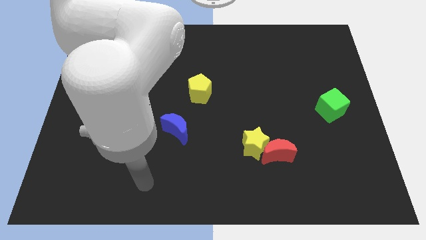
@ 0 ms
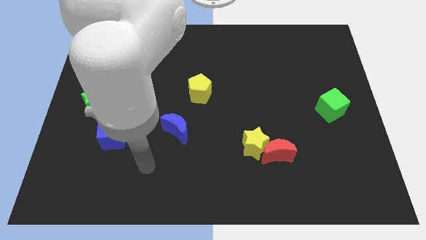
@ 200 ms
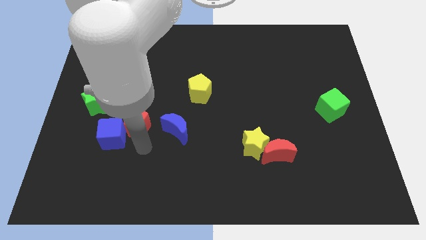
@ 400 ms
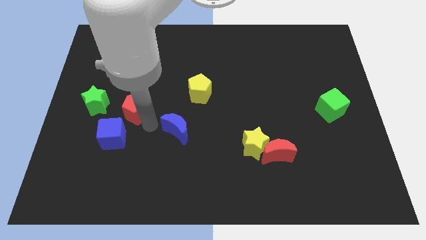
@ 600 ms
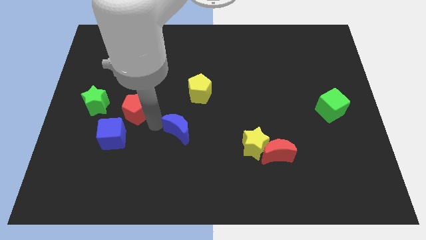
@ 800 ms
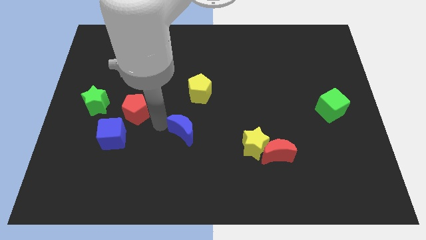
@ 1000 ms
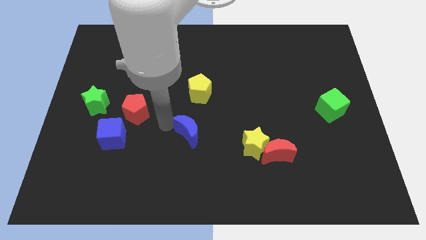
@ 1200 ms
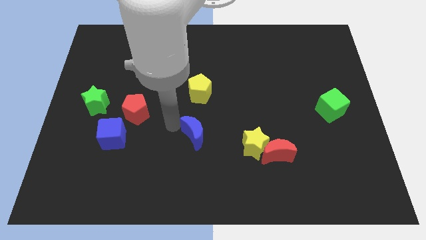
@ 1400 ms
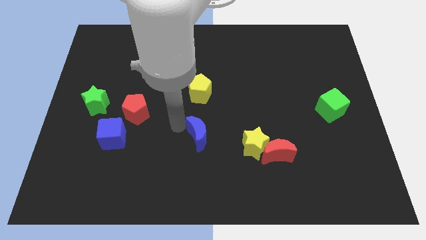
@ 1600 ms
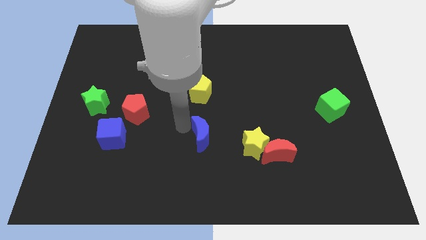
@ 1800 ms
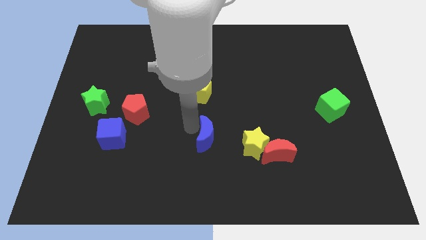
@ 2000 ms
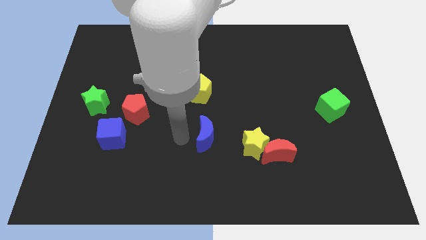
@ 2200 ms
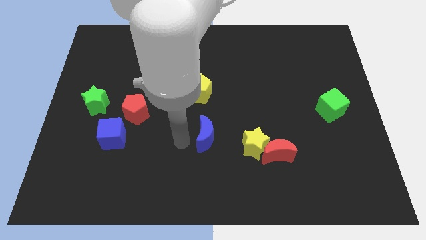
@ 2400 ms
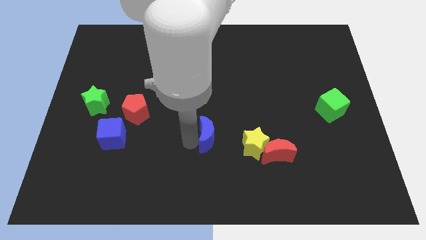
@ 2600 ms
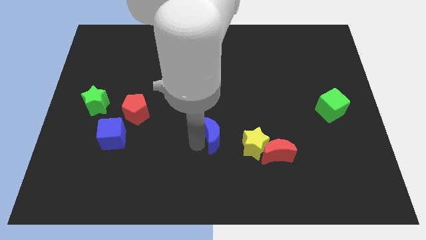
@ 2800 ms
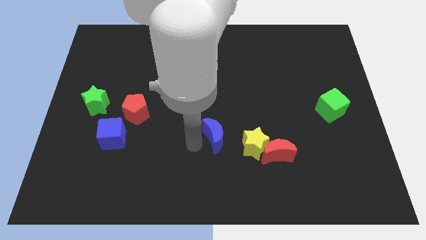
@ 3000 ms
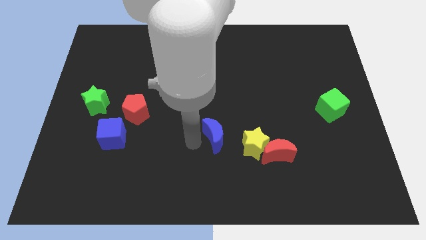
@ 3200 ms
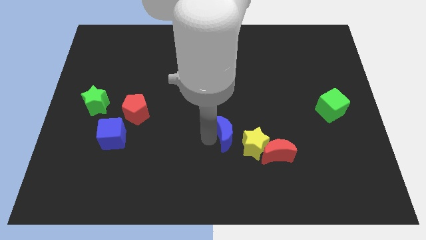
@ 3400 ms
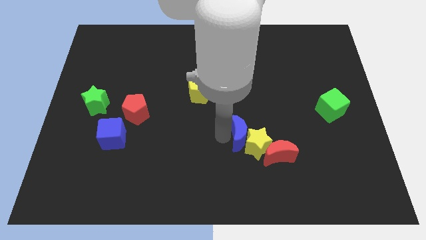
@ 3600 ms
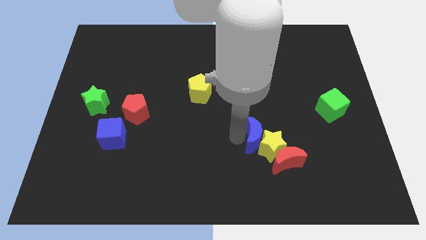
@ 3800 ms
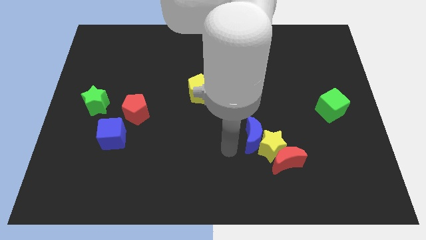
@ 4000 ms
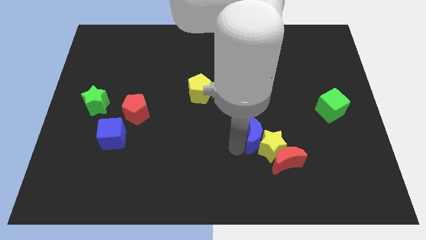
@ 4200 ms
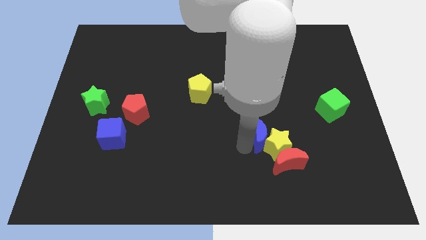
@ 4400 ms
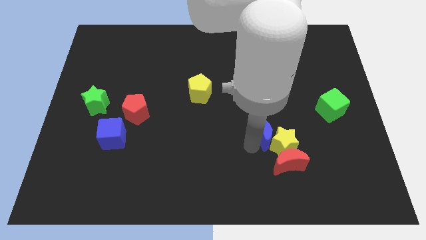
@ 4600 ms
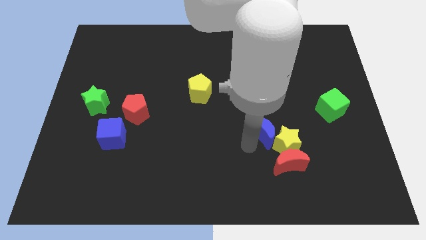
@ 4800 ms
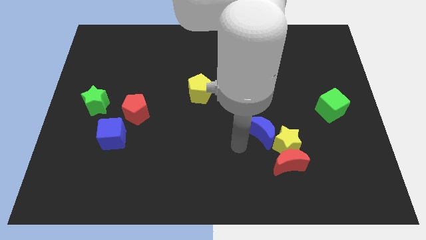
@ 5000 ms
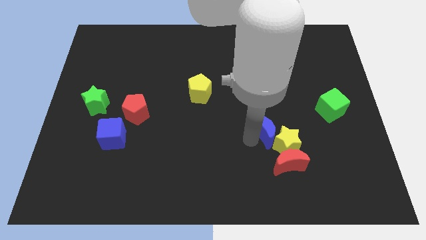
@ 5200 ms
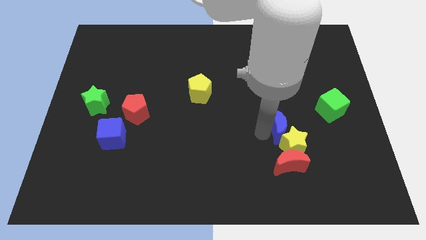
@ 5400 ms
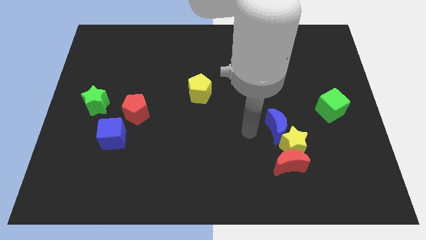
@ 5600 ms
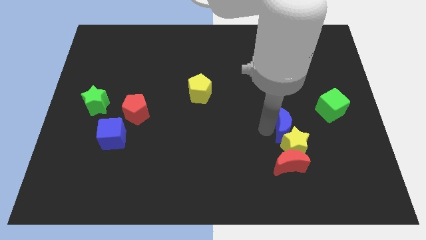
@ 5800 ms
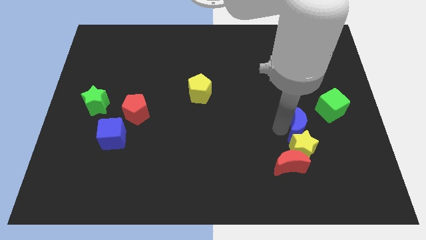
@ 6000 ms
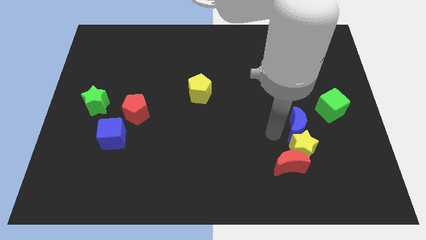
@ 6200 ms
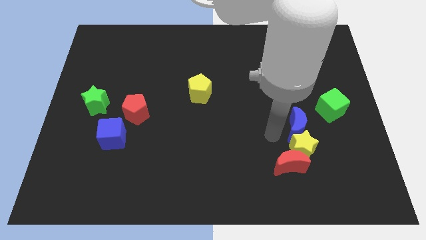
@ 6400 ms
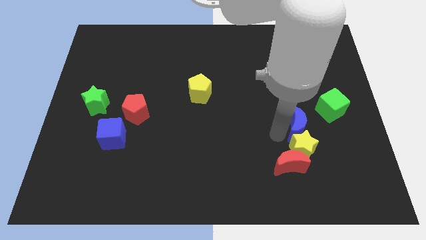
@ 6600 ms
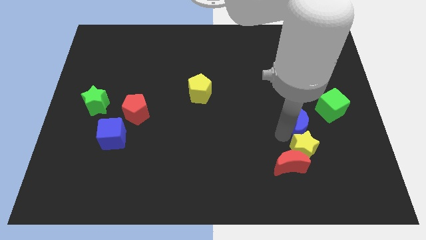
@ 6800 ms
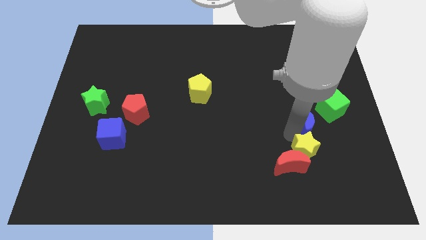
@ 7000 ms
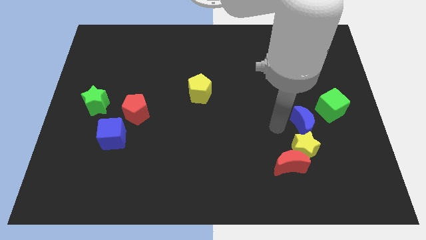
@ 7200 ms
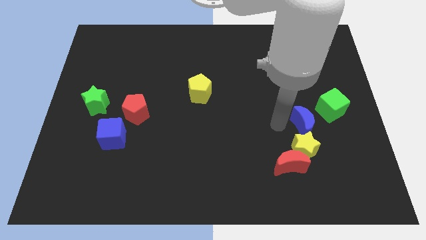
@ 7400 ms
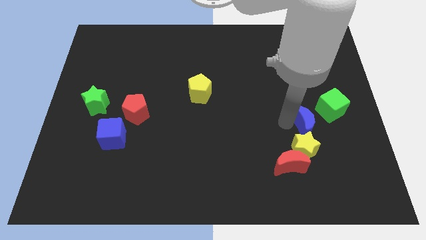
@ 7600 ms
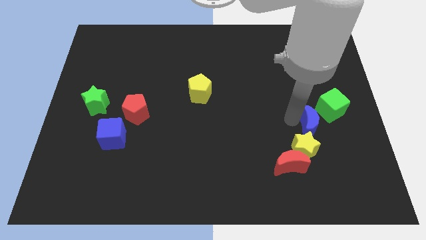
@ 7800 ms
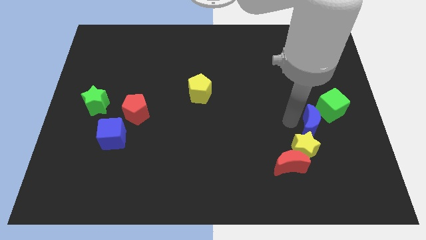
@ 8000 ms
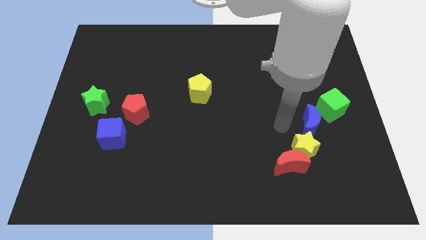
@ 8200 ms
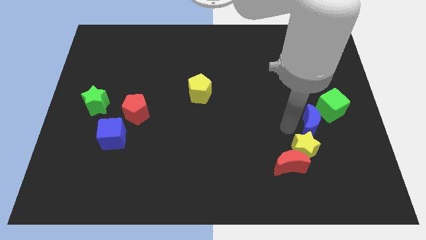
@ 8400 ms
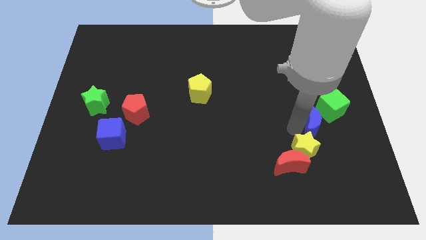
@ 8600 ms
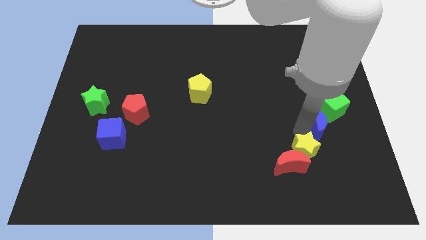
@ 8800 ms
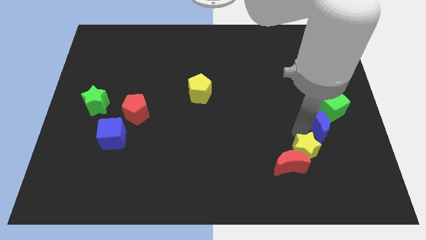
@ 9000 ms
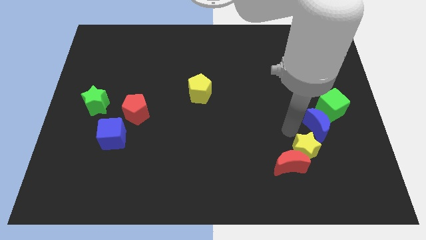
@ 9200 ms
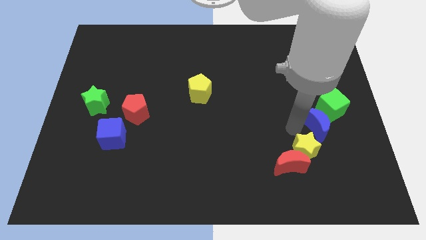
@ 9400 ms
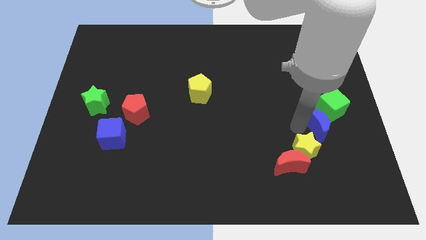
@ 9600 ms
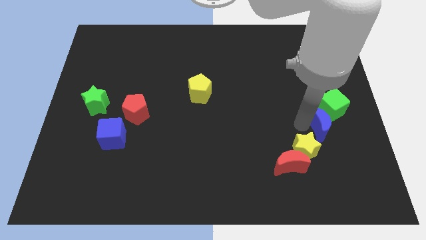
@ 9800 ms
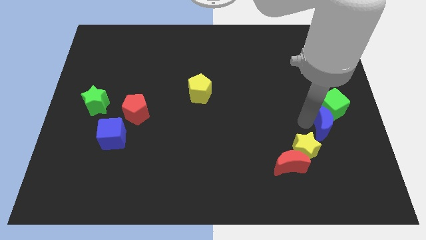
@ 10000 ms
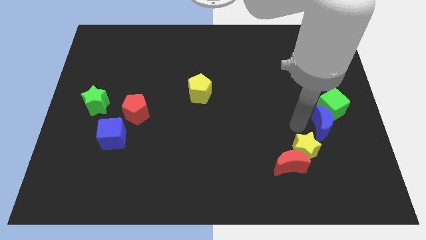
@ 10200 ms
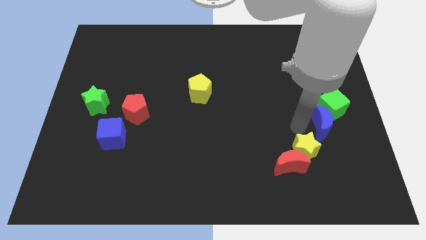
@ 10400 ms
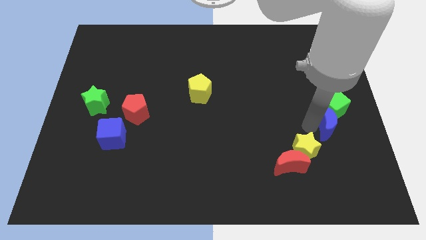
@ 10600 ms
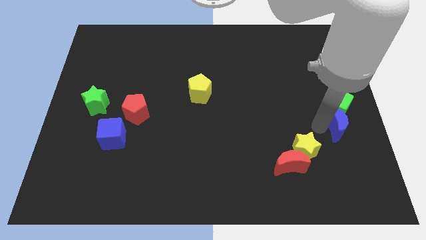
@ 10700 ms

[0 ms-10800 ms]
put the blue moon to the right side of the board

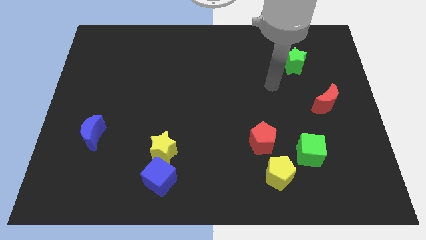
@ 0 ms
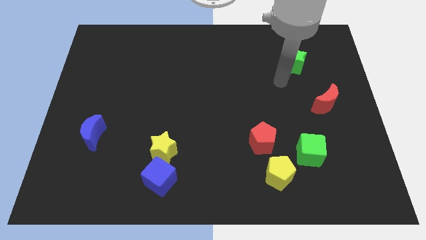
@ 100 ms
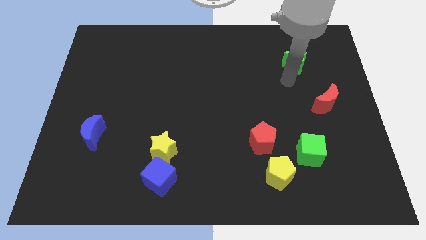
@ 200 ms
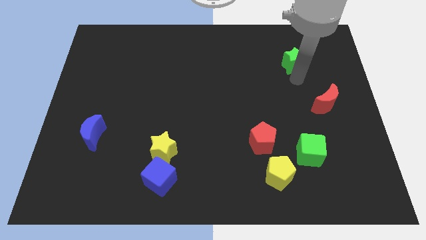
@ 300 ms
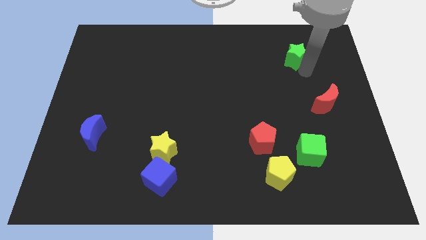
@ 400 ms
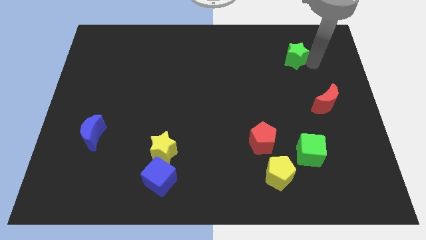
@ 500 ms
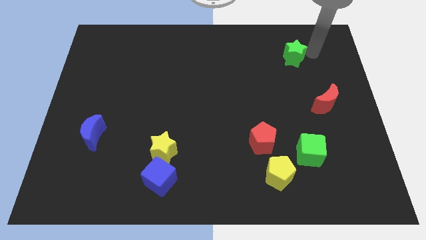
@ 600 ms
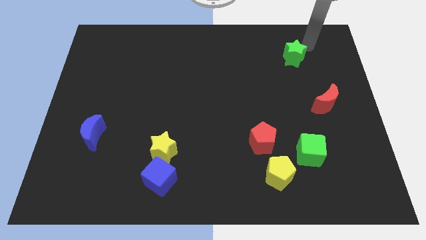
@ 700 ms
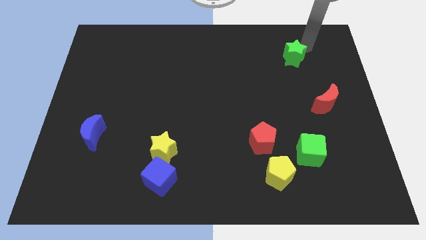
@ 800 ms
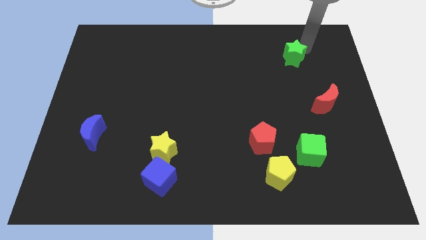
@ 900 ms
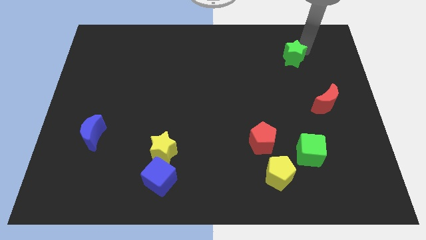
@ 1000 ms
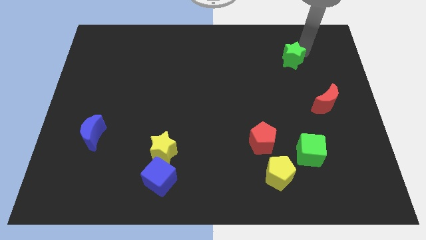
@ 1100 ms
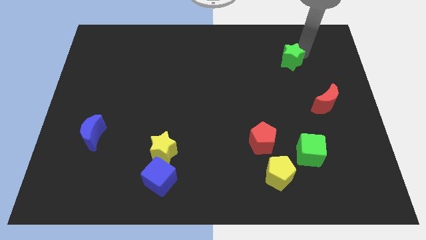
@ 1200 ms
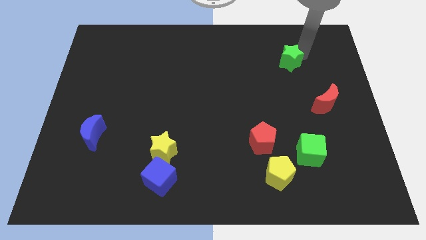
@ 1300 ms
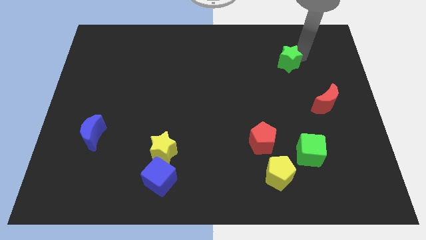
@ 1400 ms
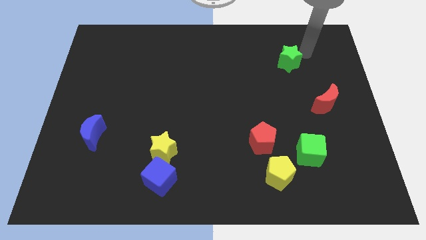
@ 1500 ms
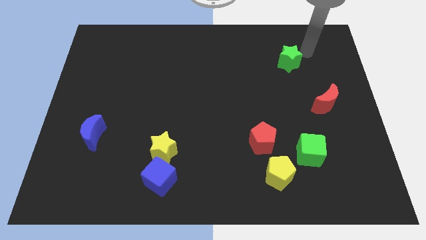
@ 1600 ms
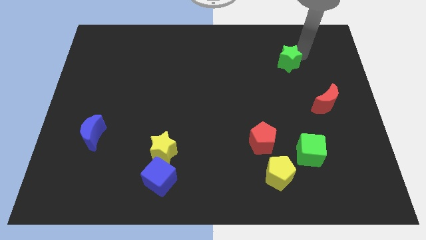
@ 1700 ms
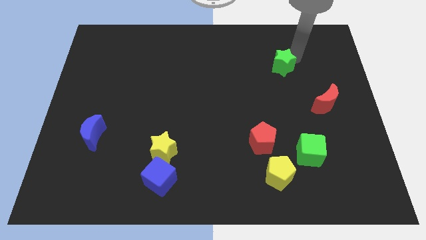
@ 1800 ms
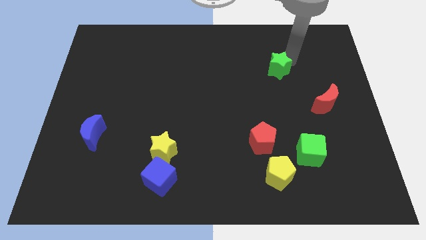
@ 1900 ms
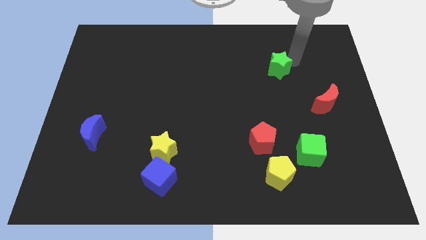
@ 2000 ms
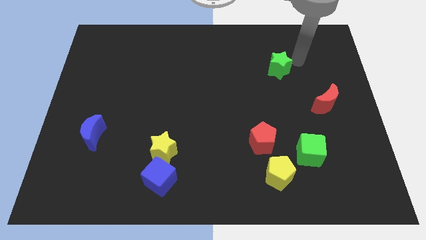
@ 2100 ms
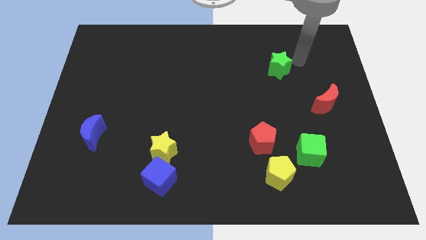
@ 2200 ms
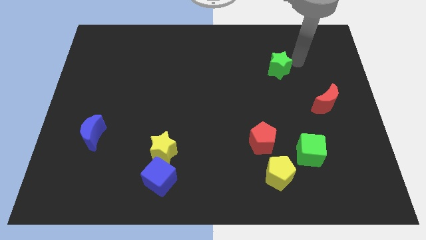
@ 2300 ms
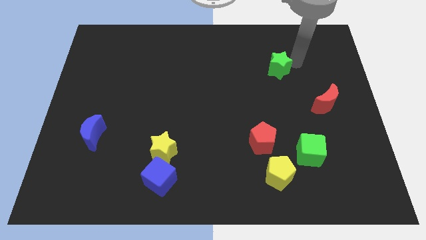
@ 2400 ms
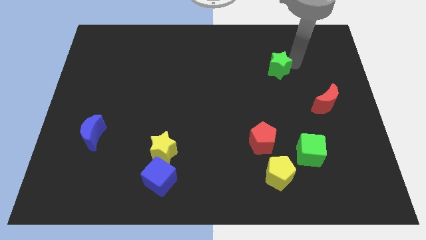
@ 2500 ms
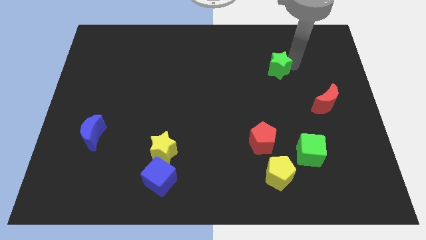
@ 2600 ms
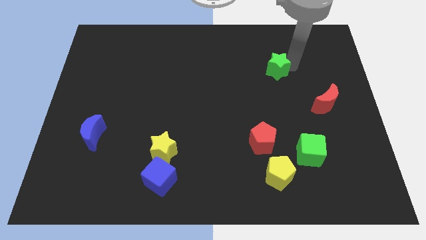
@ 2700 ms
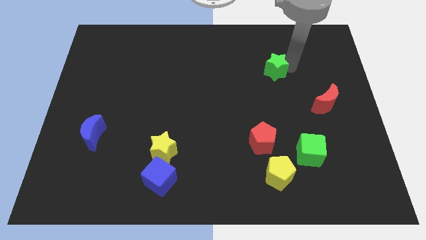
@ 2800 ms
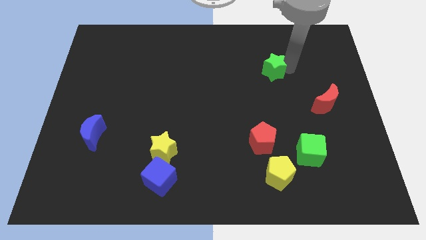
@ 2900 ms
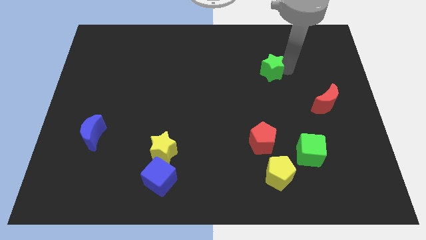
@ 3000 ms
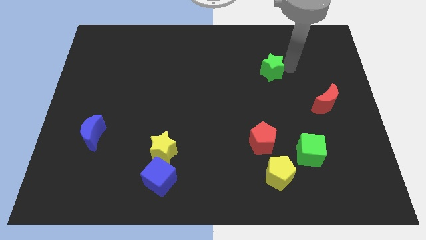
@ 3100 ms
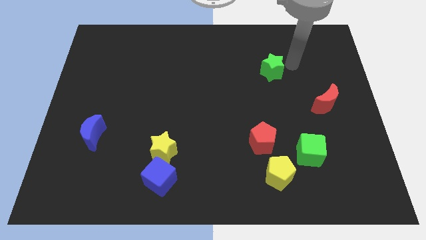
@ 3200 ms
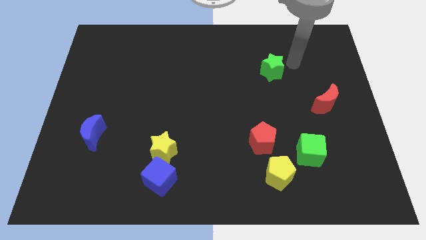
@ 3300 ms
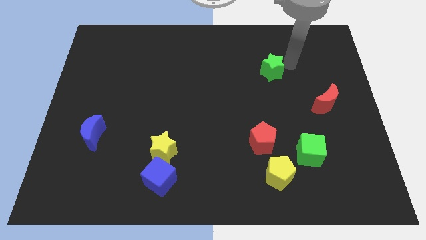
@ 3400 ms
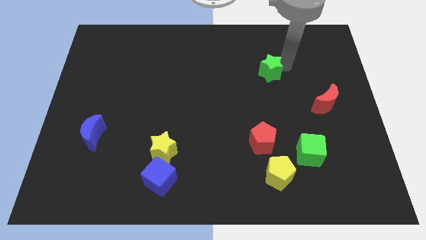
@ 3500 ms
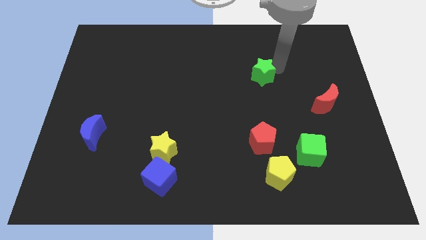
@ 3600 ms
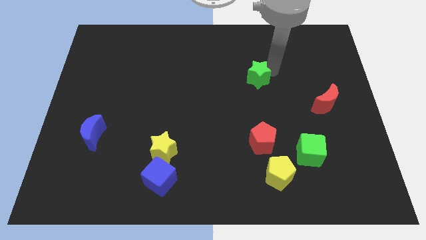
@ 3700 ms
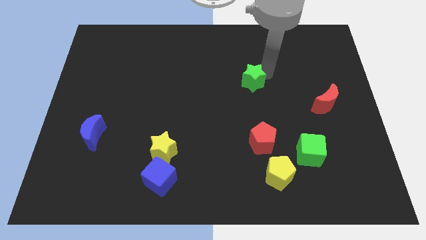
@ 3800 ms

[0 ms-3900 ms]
move the green star to the middle of the board
